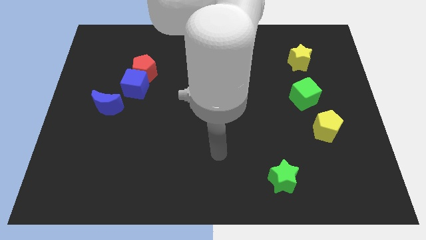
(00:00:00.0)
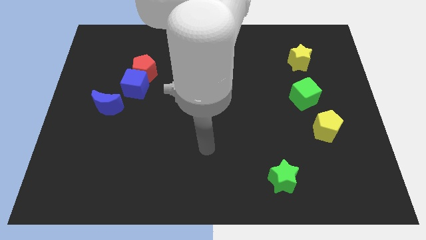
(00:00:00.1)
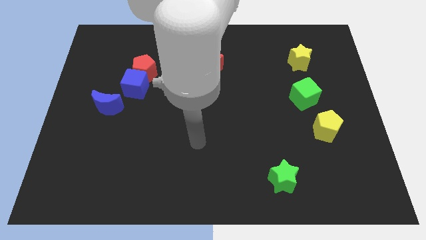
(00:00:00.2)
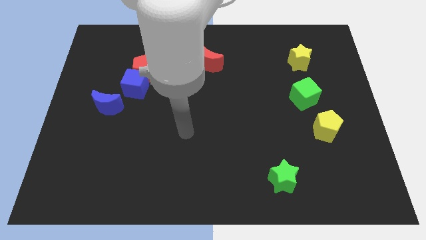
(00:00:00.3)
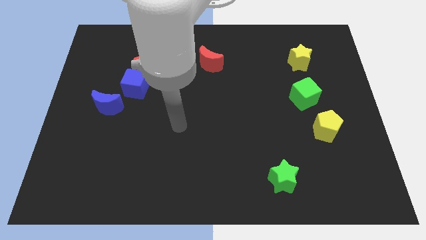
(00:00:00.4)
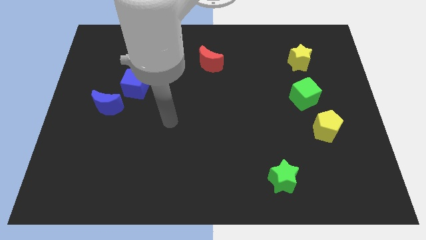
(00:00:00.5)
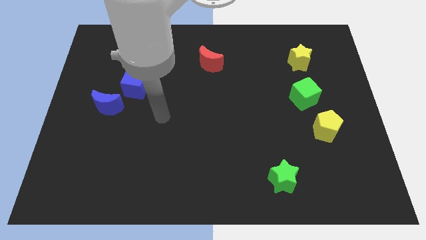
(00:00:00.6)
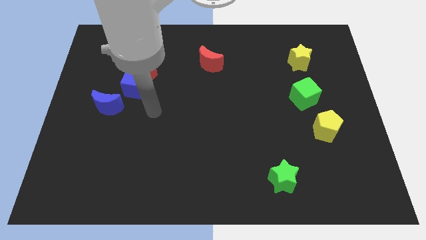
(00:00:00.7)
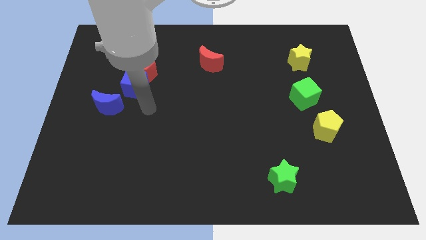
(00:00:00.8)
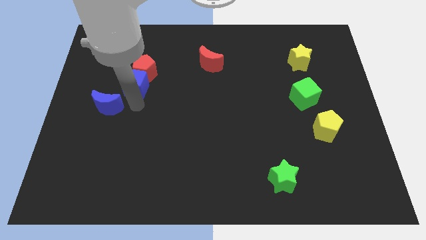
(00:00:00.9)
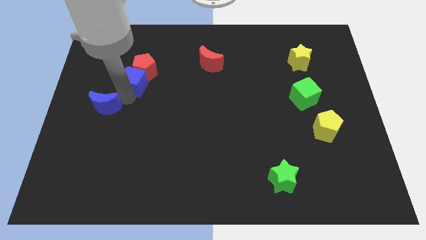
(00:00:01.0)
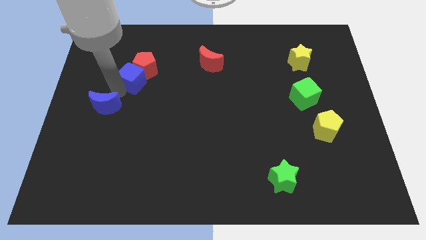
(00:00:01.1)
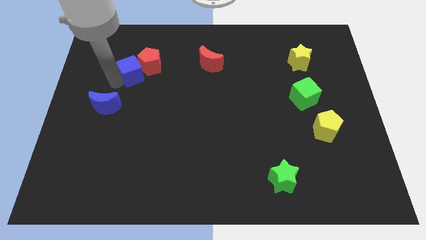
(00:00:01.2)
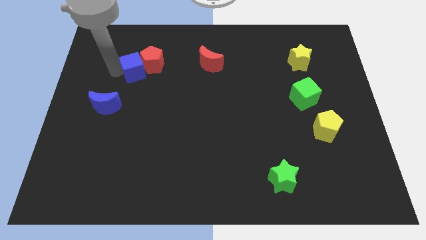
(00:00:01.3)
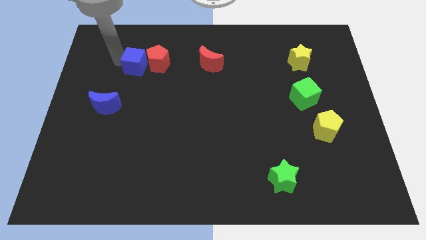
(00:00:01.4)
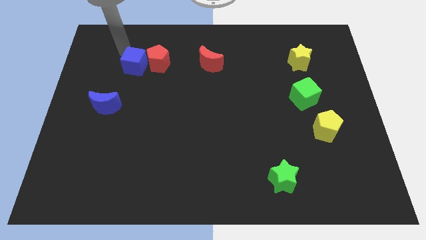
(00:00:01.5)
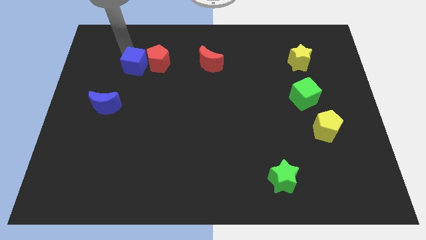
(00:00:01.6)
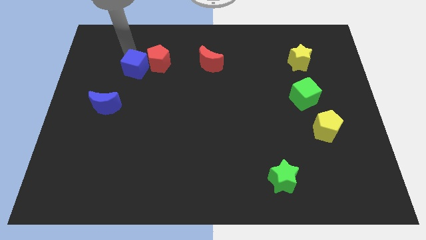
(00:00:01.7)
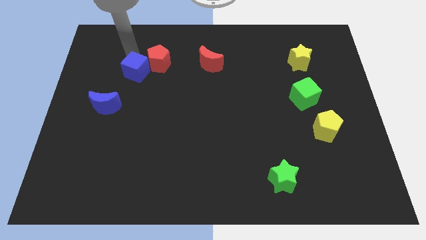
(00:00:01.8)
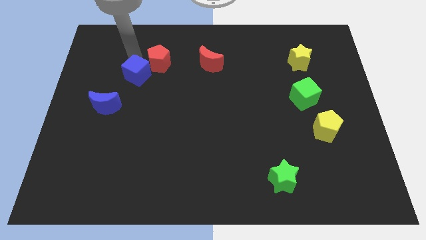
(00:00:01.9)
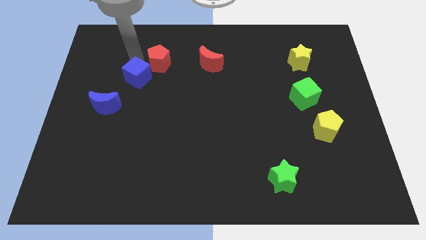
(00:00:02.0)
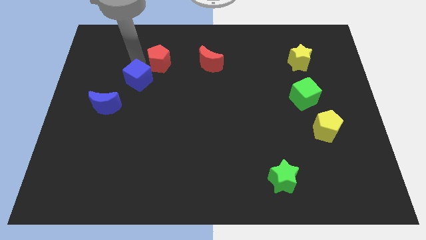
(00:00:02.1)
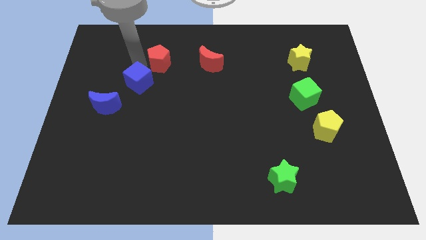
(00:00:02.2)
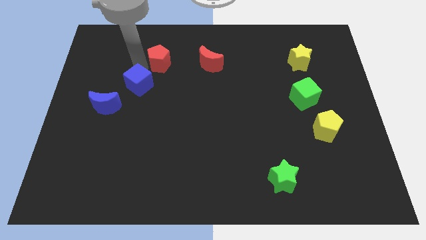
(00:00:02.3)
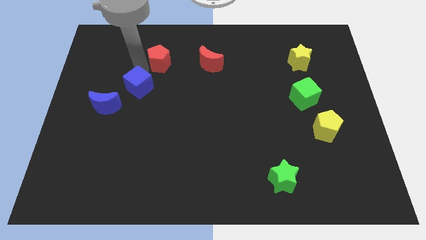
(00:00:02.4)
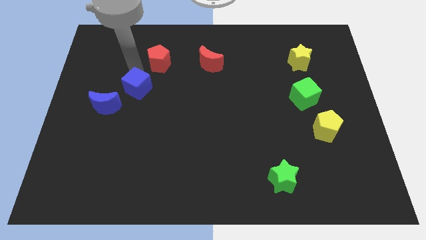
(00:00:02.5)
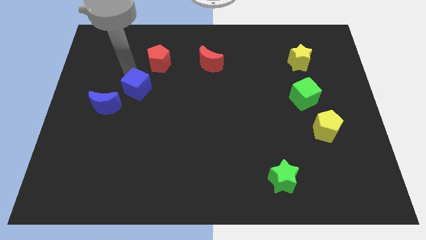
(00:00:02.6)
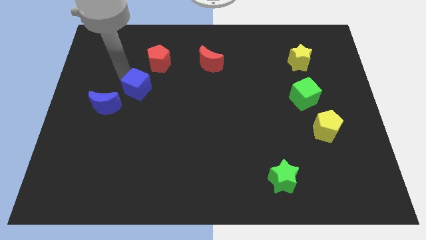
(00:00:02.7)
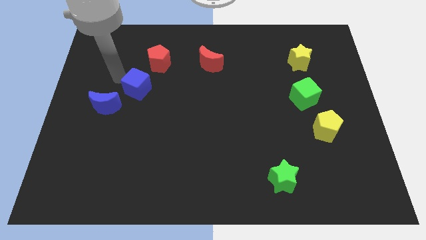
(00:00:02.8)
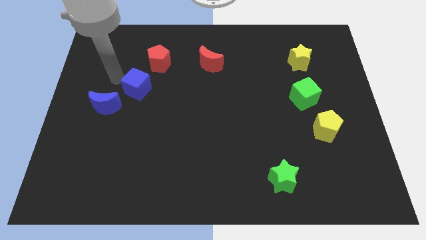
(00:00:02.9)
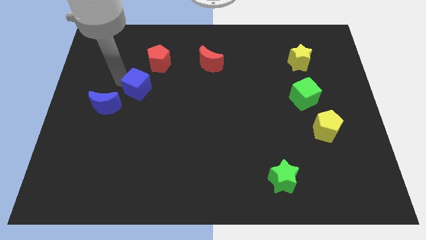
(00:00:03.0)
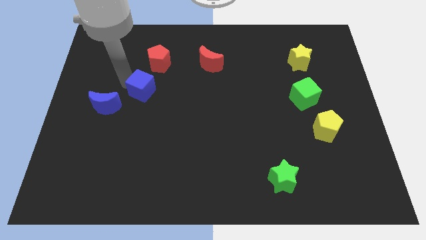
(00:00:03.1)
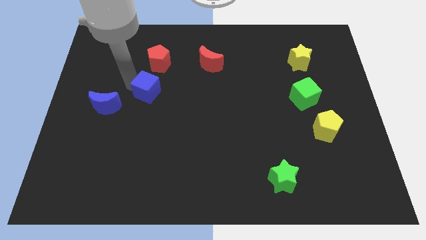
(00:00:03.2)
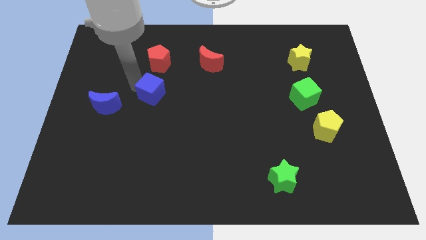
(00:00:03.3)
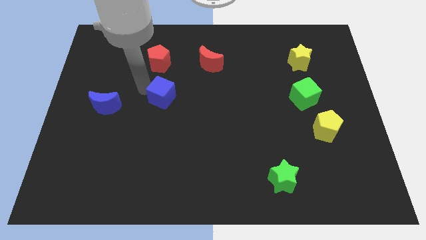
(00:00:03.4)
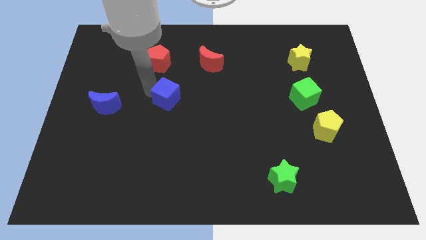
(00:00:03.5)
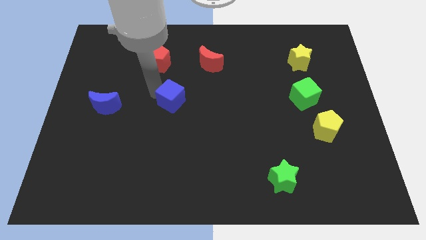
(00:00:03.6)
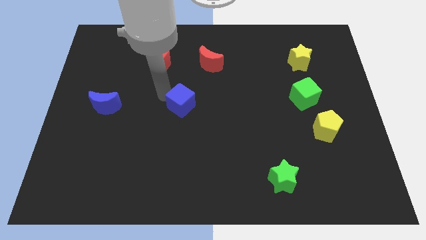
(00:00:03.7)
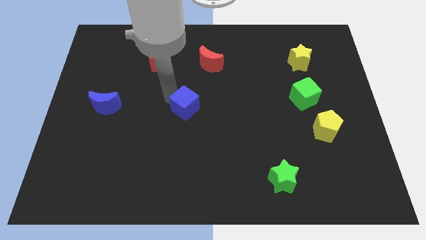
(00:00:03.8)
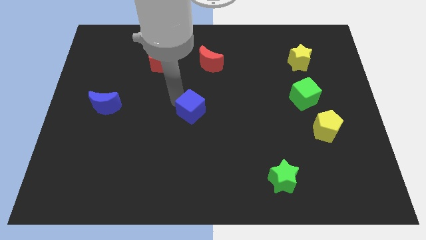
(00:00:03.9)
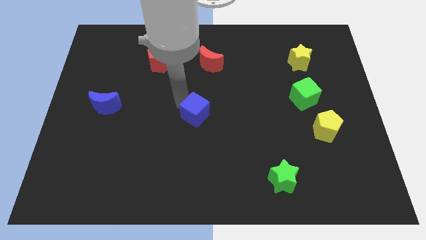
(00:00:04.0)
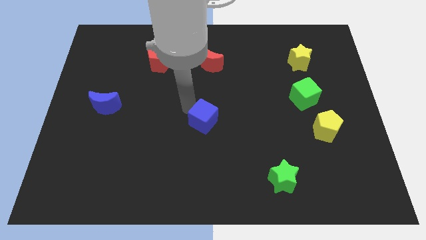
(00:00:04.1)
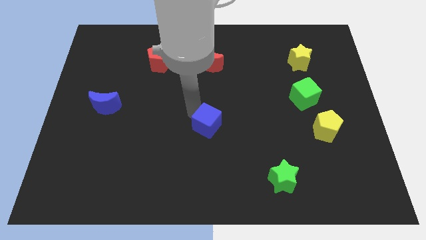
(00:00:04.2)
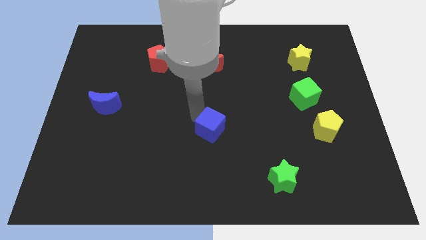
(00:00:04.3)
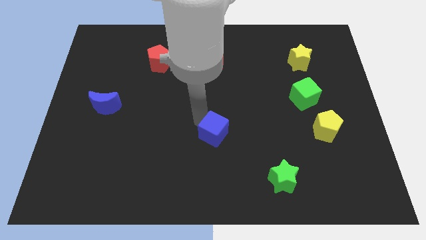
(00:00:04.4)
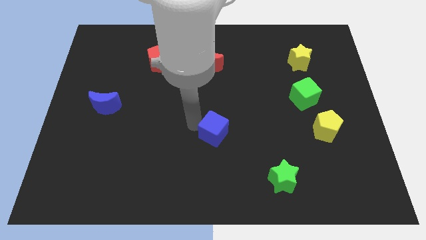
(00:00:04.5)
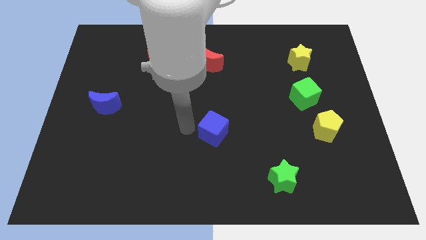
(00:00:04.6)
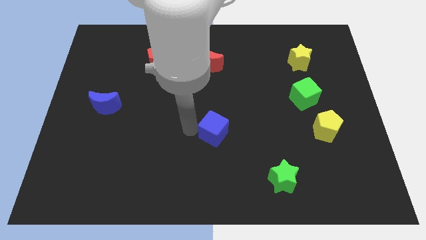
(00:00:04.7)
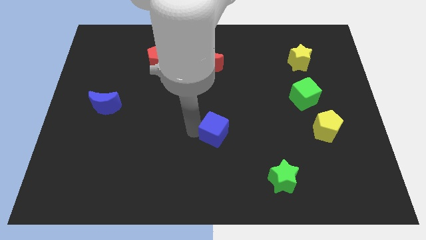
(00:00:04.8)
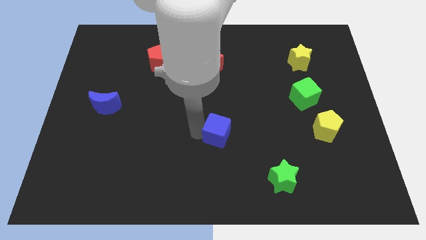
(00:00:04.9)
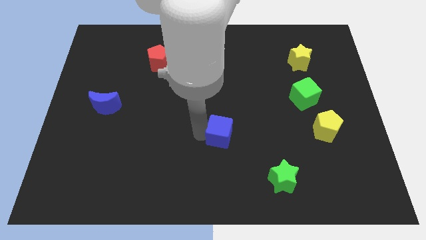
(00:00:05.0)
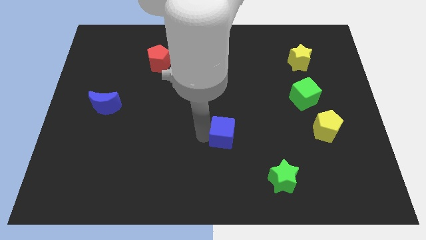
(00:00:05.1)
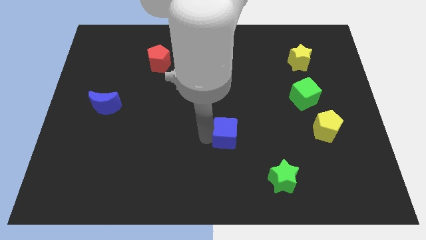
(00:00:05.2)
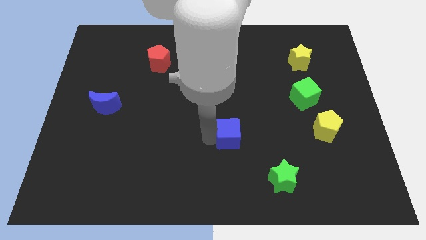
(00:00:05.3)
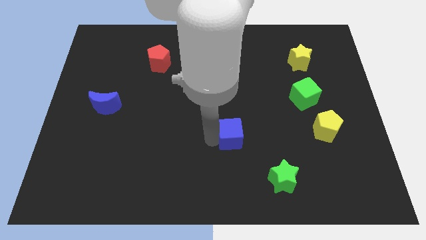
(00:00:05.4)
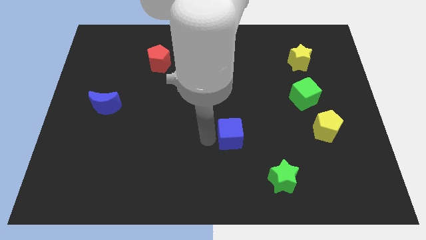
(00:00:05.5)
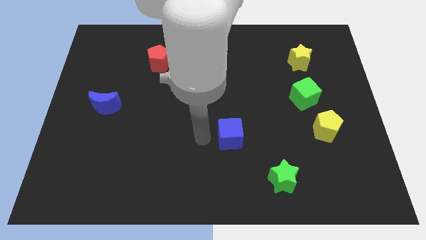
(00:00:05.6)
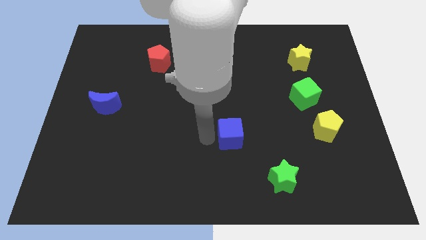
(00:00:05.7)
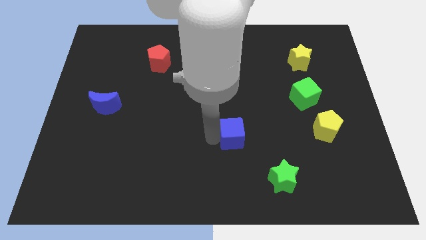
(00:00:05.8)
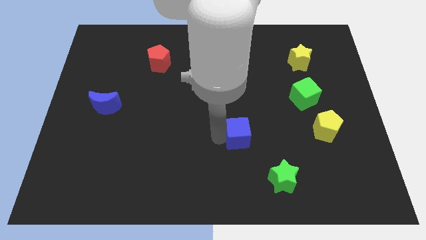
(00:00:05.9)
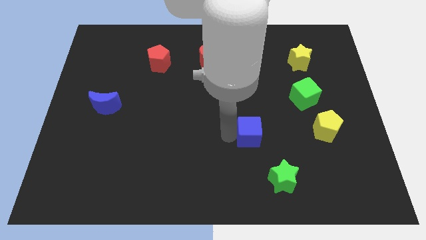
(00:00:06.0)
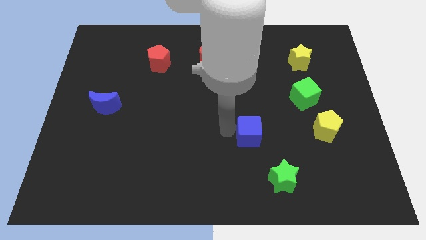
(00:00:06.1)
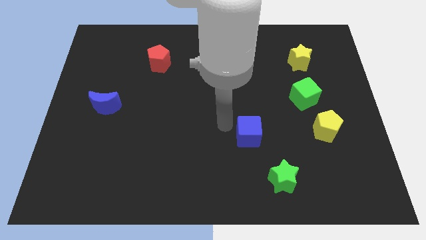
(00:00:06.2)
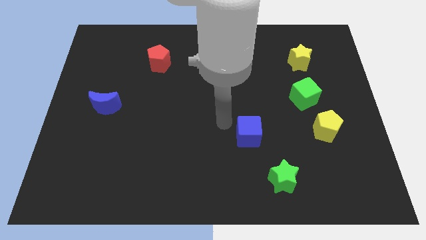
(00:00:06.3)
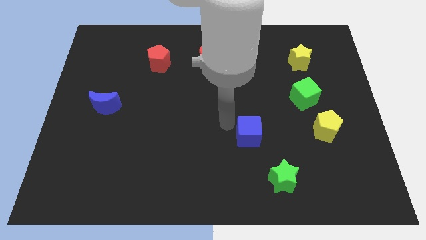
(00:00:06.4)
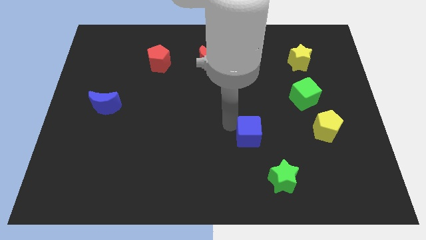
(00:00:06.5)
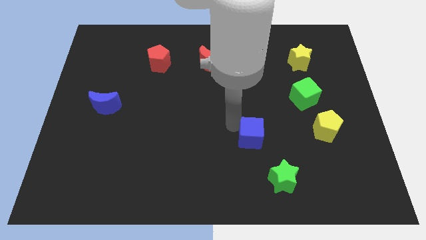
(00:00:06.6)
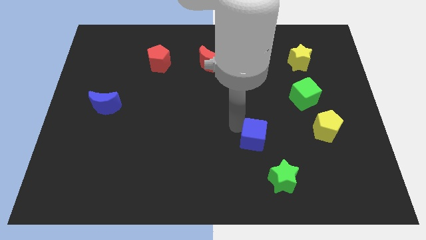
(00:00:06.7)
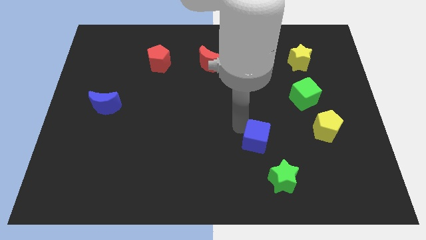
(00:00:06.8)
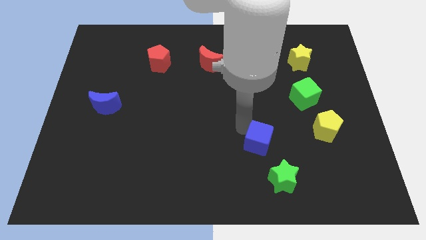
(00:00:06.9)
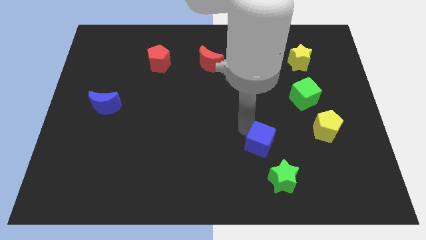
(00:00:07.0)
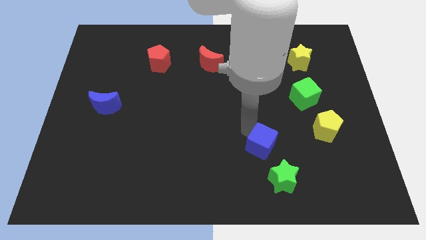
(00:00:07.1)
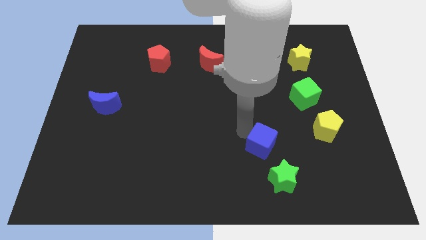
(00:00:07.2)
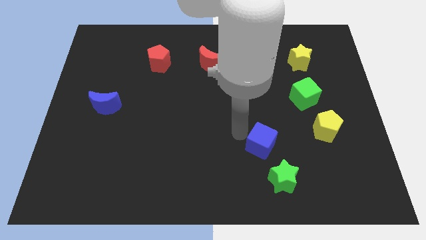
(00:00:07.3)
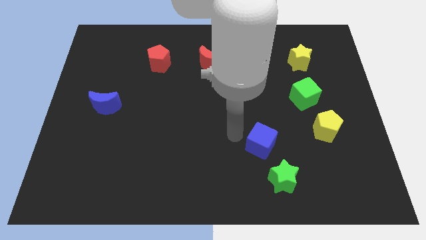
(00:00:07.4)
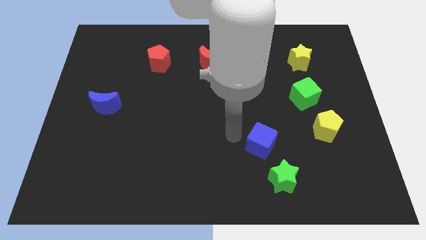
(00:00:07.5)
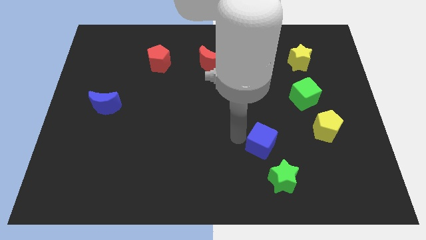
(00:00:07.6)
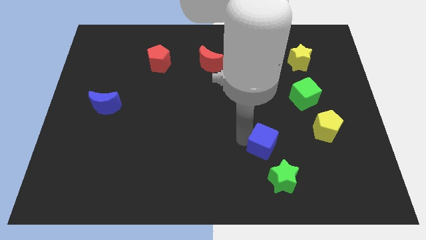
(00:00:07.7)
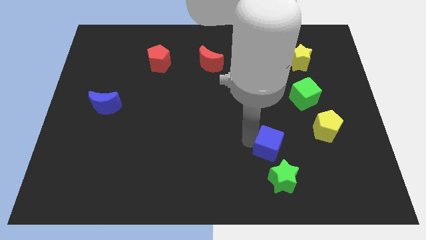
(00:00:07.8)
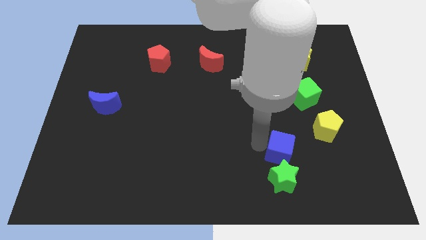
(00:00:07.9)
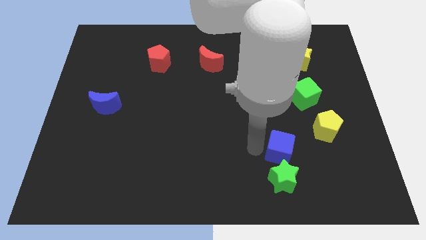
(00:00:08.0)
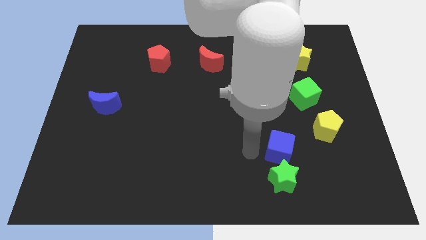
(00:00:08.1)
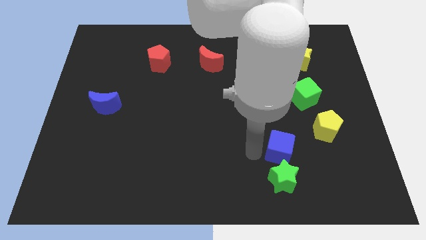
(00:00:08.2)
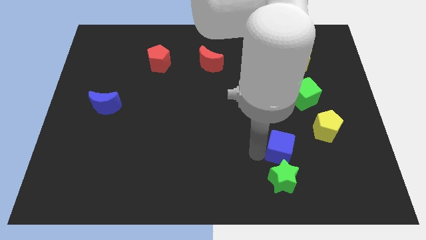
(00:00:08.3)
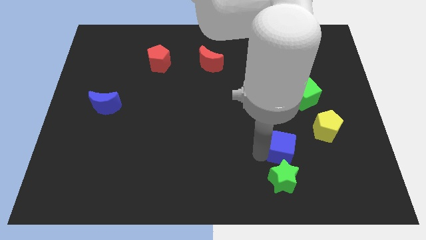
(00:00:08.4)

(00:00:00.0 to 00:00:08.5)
push the blue cube diagonally down and to the left of the yellow pentagon
